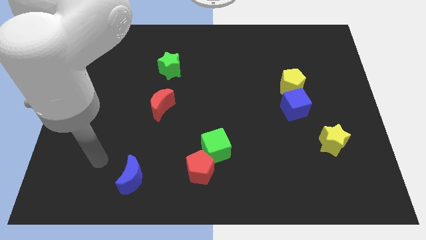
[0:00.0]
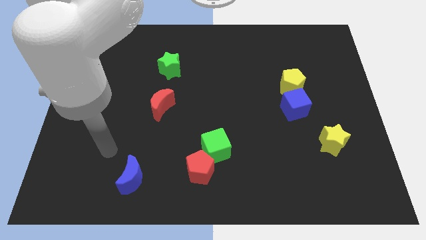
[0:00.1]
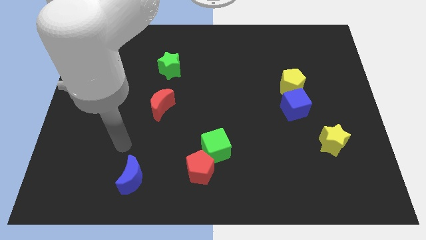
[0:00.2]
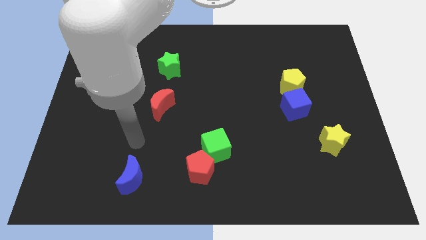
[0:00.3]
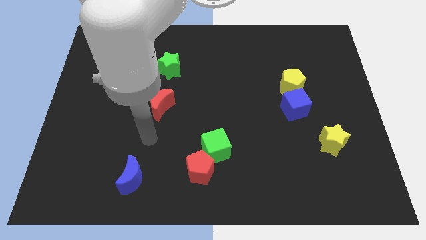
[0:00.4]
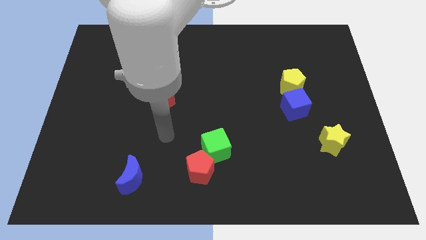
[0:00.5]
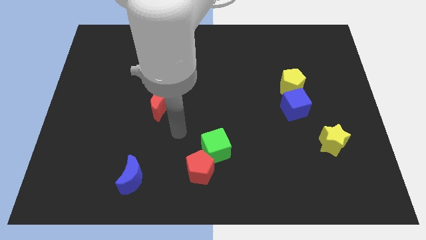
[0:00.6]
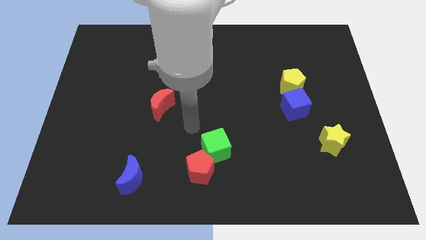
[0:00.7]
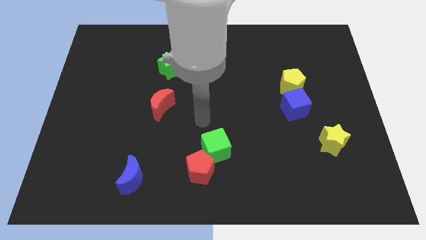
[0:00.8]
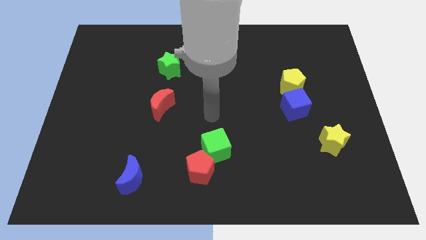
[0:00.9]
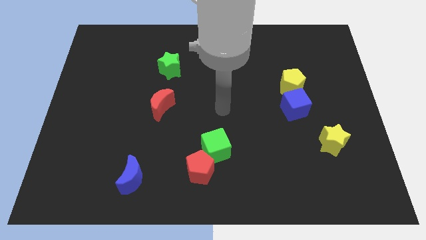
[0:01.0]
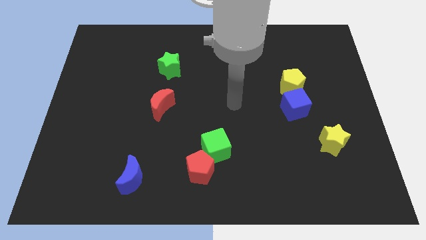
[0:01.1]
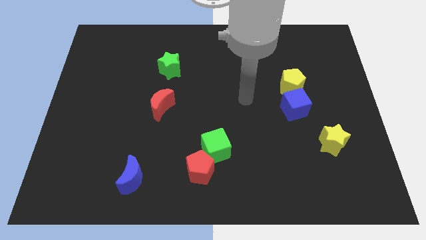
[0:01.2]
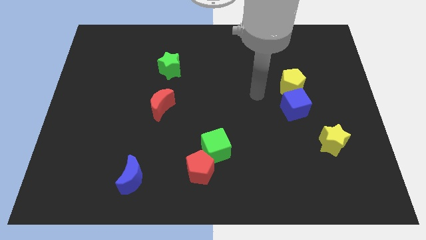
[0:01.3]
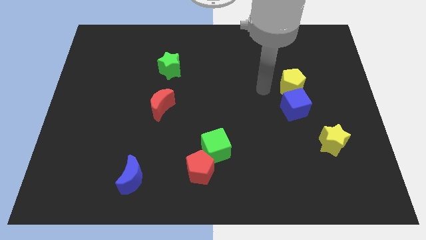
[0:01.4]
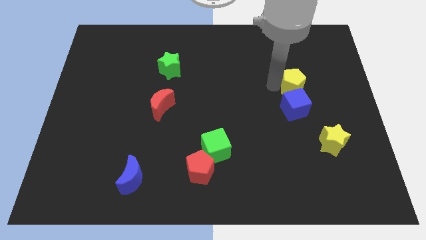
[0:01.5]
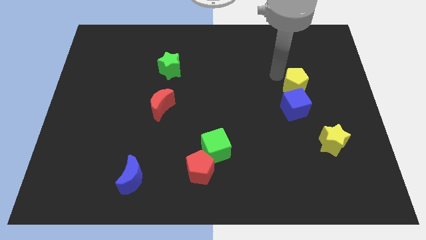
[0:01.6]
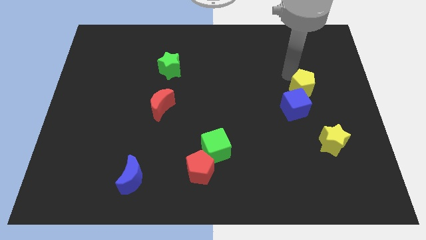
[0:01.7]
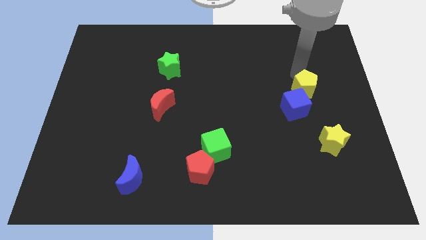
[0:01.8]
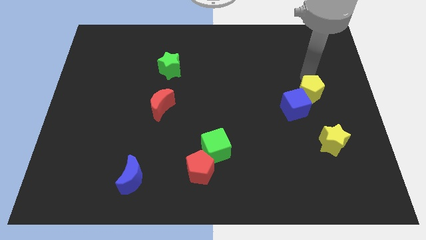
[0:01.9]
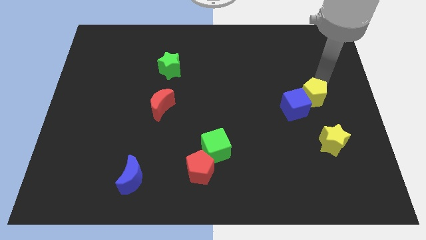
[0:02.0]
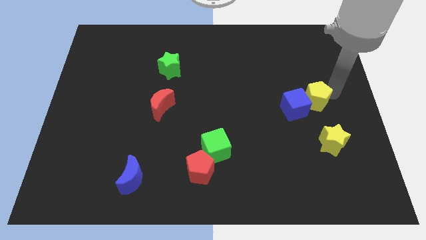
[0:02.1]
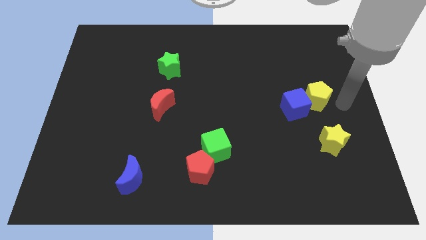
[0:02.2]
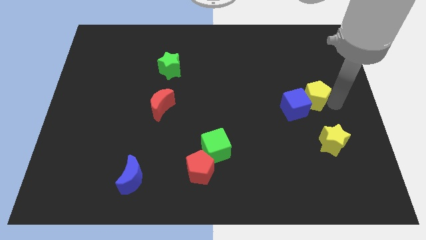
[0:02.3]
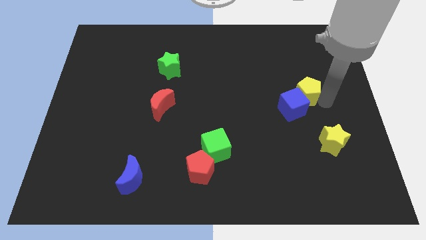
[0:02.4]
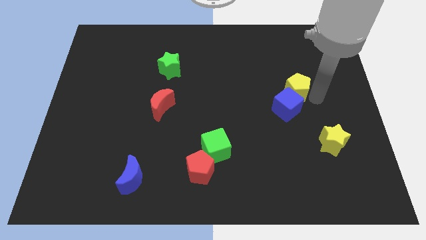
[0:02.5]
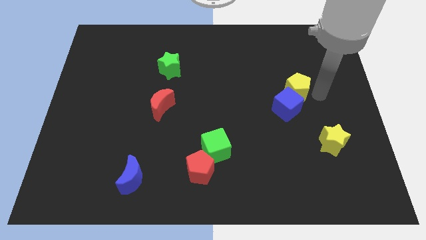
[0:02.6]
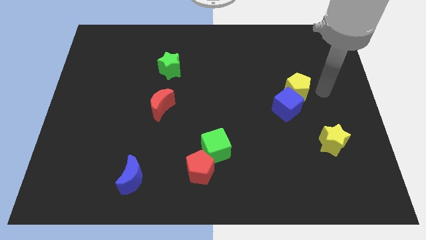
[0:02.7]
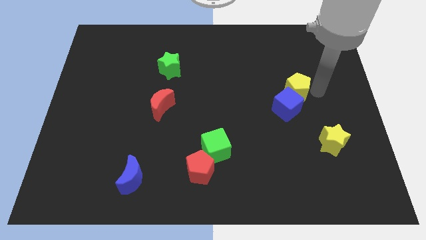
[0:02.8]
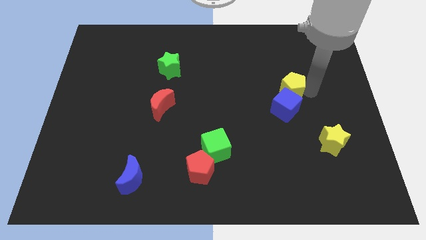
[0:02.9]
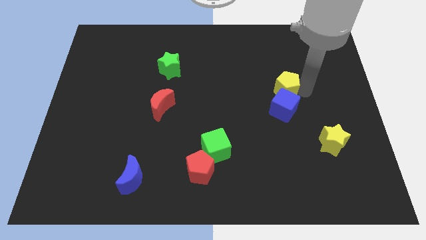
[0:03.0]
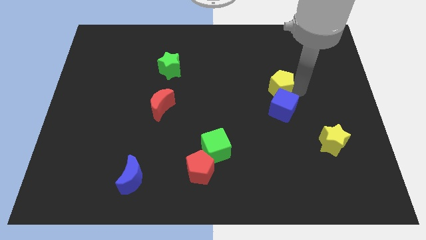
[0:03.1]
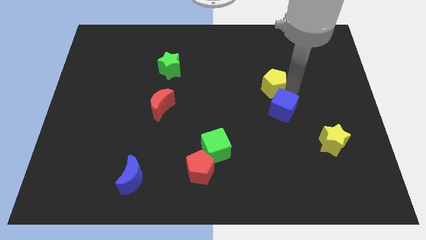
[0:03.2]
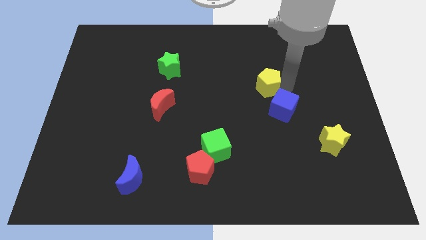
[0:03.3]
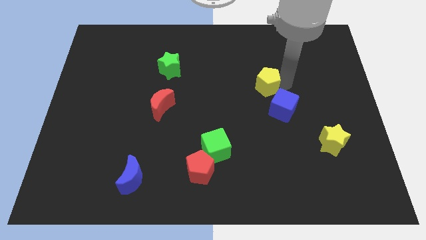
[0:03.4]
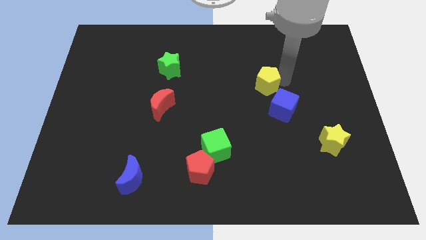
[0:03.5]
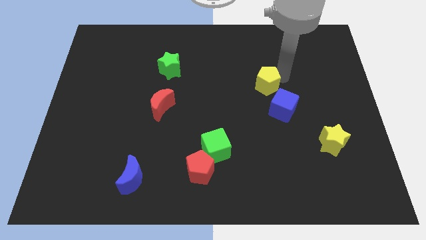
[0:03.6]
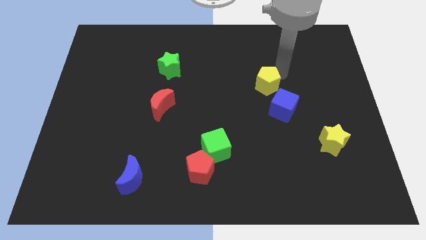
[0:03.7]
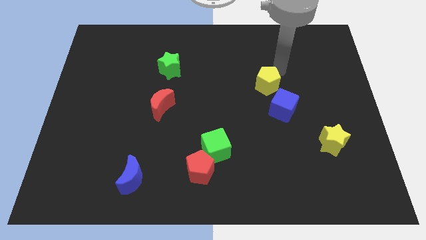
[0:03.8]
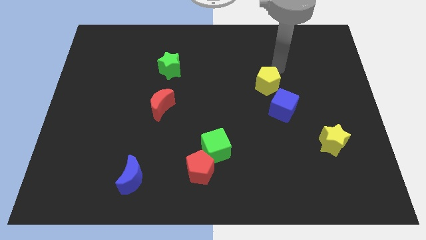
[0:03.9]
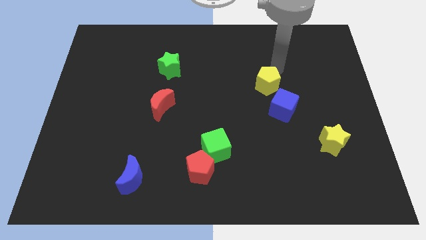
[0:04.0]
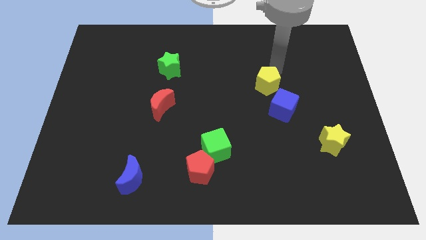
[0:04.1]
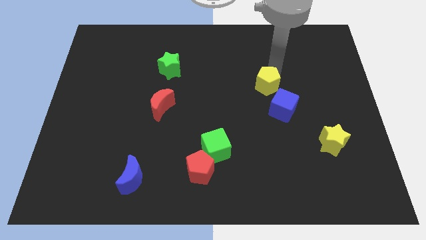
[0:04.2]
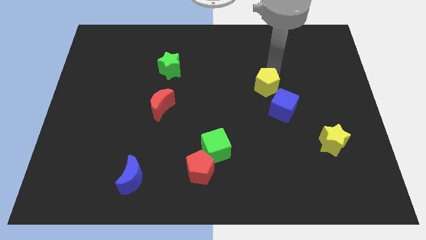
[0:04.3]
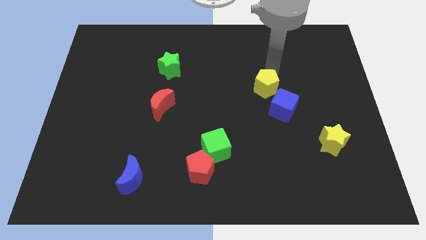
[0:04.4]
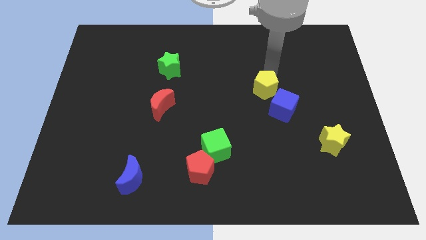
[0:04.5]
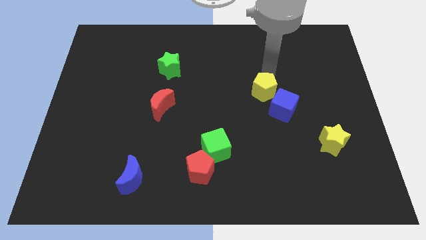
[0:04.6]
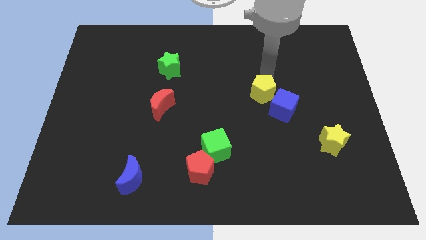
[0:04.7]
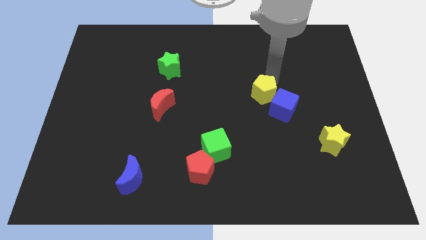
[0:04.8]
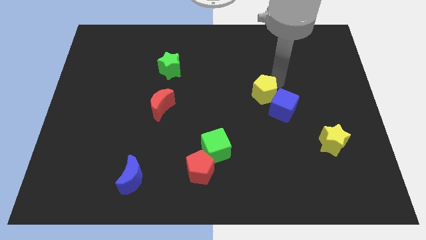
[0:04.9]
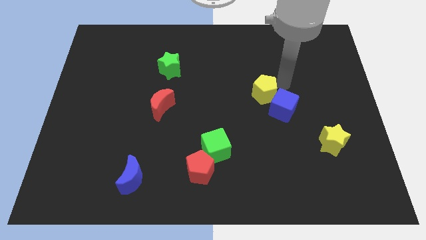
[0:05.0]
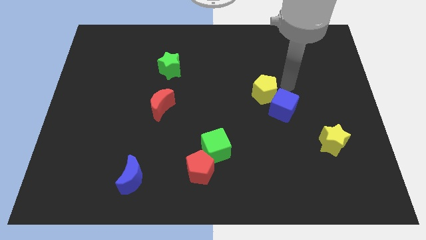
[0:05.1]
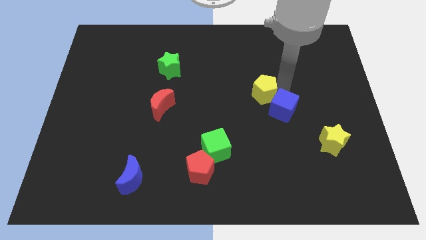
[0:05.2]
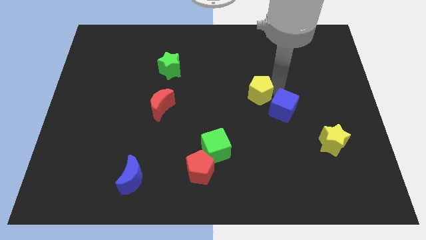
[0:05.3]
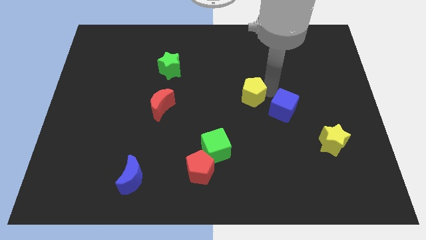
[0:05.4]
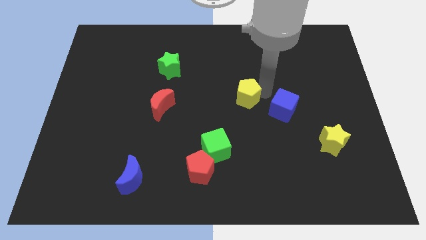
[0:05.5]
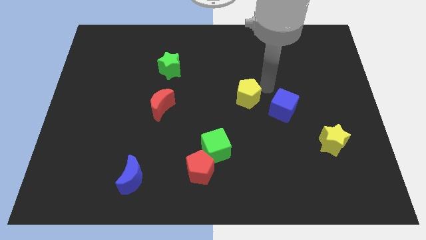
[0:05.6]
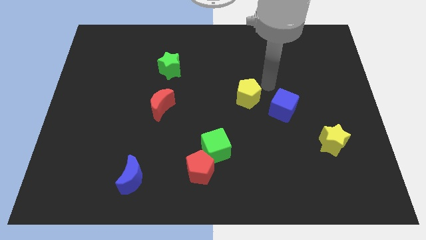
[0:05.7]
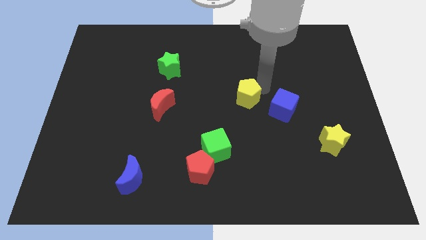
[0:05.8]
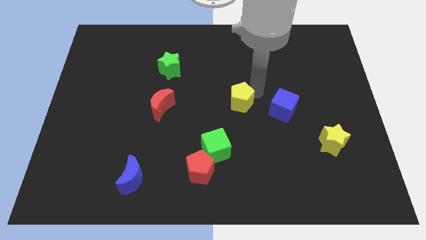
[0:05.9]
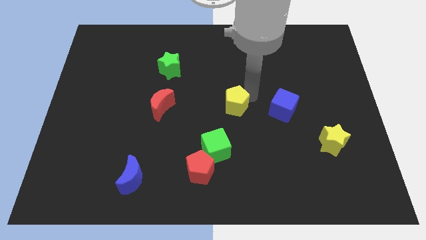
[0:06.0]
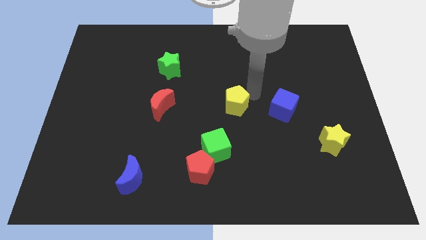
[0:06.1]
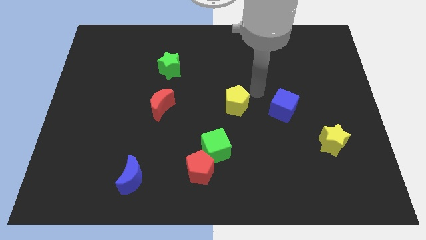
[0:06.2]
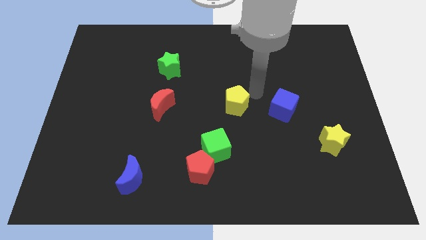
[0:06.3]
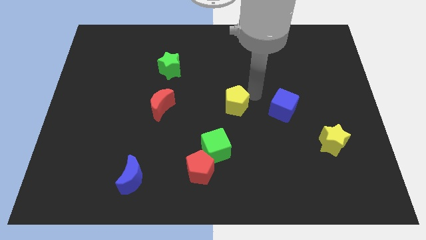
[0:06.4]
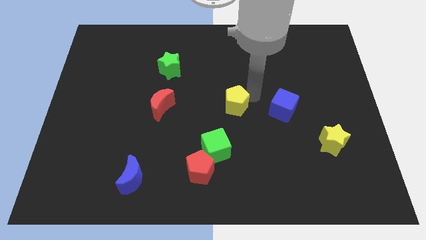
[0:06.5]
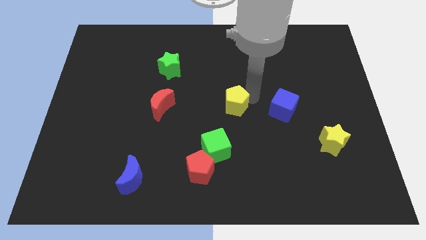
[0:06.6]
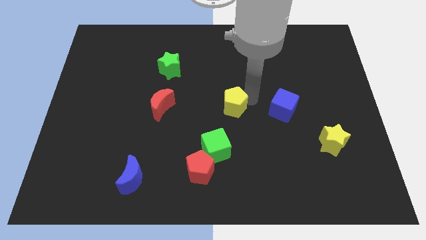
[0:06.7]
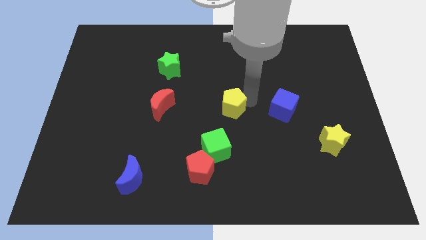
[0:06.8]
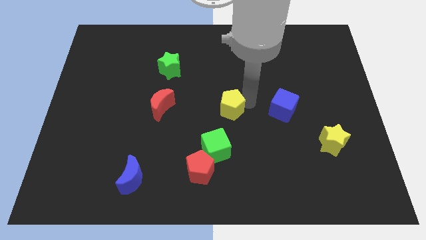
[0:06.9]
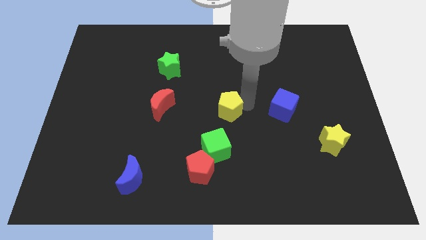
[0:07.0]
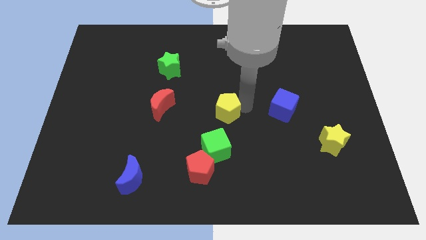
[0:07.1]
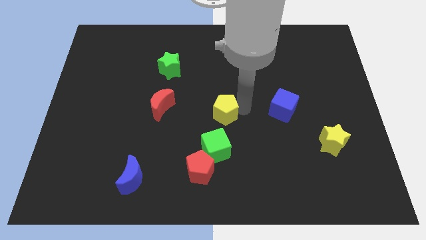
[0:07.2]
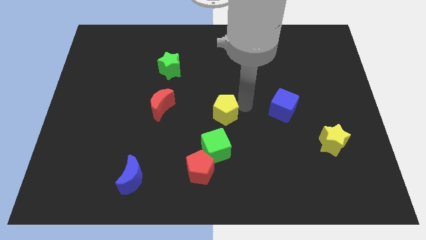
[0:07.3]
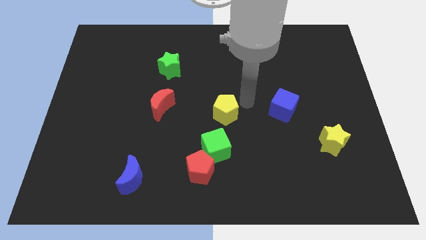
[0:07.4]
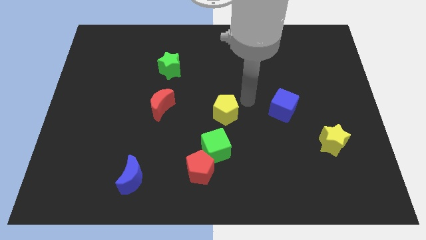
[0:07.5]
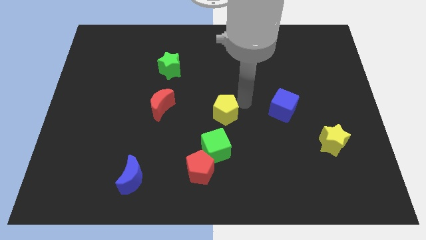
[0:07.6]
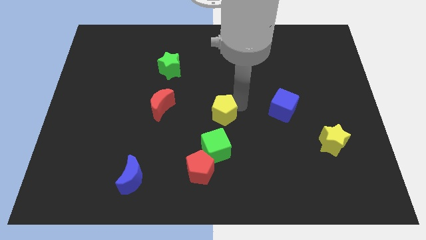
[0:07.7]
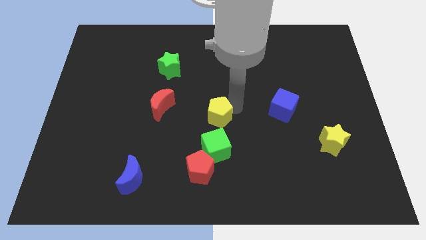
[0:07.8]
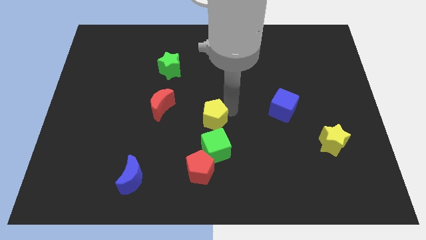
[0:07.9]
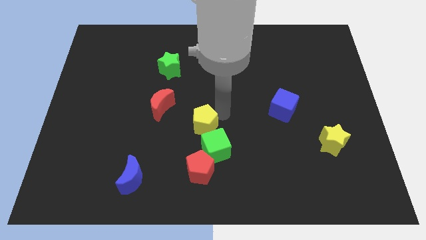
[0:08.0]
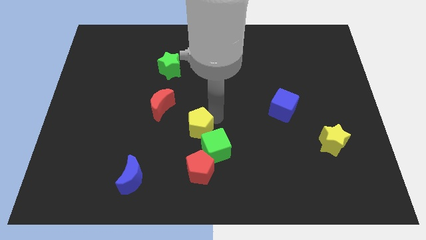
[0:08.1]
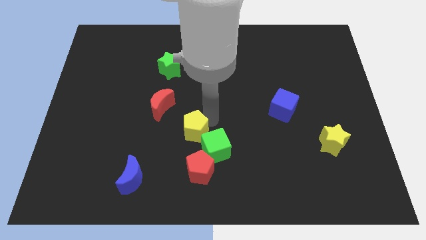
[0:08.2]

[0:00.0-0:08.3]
slide the yellow pentagon to the left of the green cube
